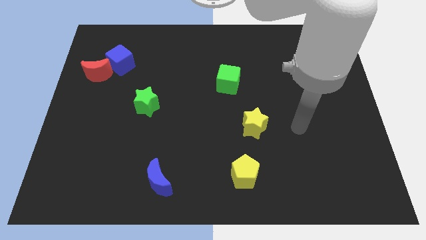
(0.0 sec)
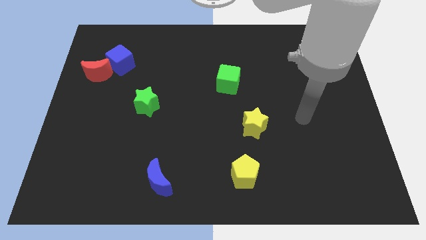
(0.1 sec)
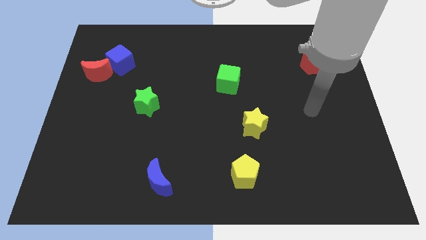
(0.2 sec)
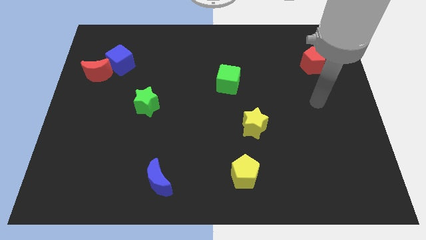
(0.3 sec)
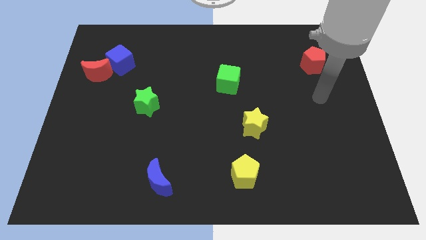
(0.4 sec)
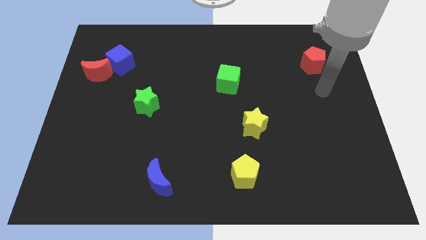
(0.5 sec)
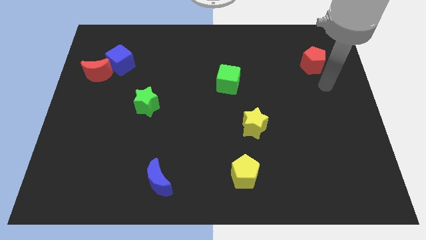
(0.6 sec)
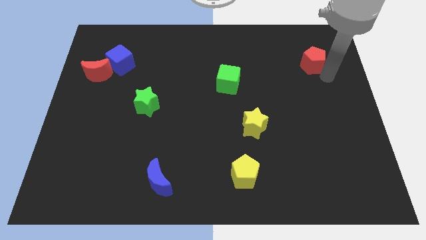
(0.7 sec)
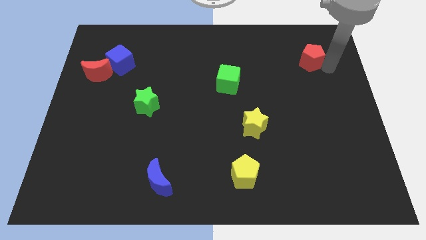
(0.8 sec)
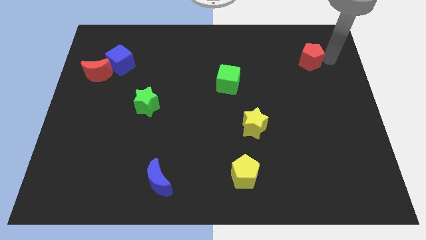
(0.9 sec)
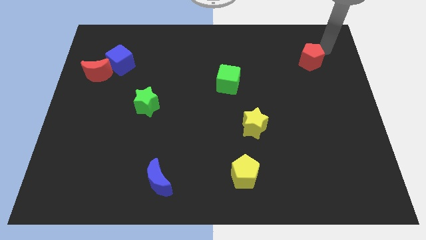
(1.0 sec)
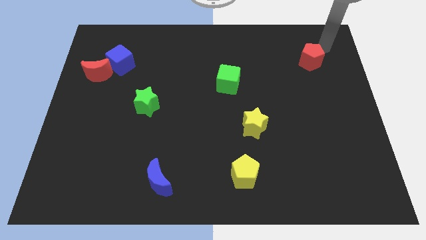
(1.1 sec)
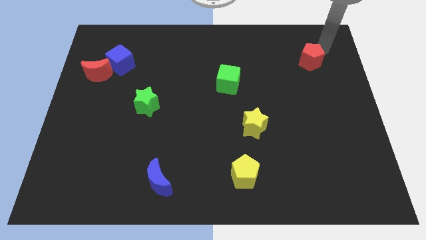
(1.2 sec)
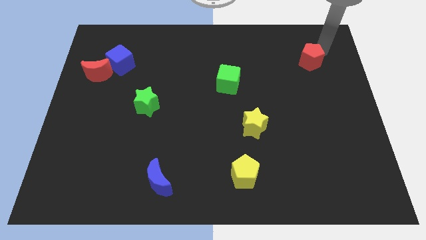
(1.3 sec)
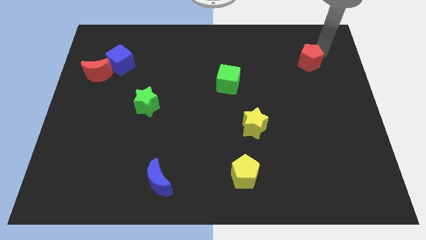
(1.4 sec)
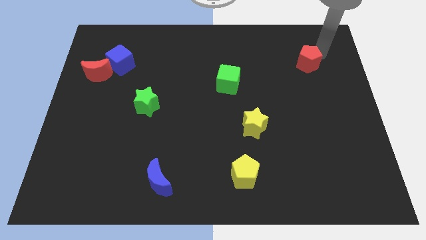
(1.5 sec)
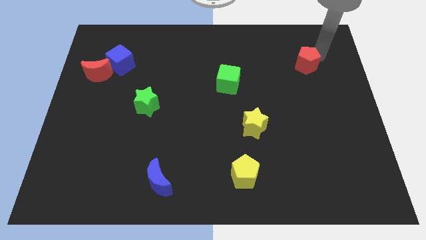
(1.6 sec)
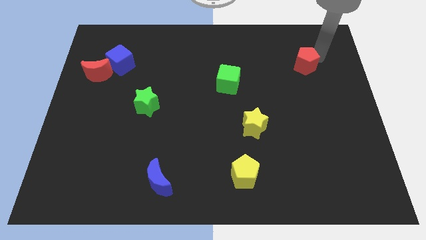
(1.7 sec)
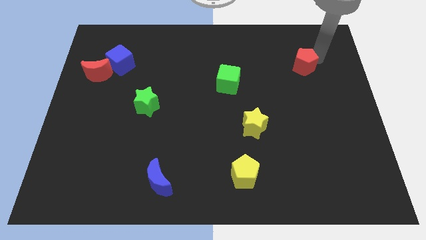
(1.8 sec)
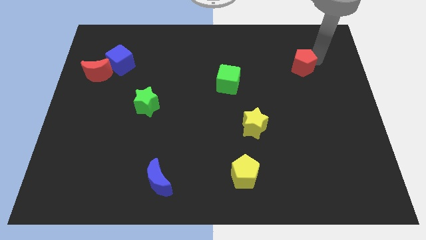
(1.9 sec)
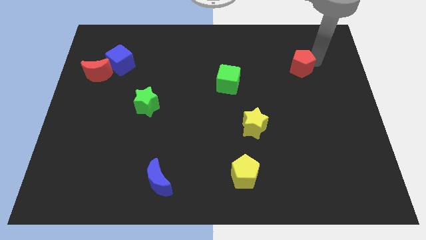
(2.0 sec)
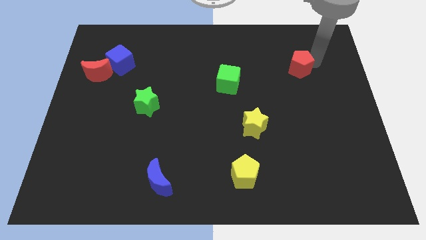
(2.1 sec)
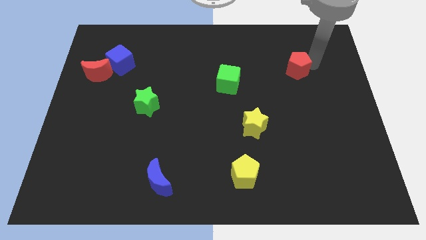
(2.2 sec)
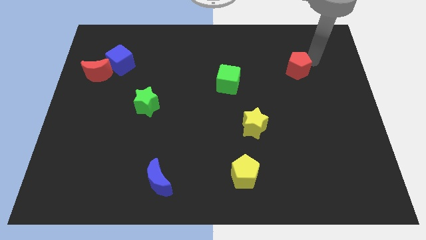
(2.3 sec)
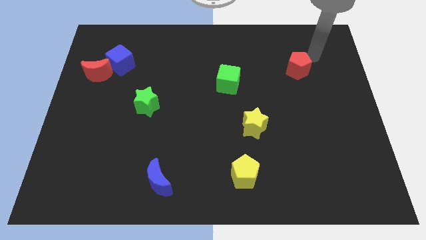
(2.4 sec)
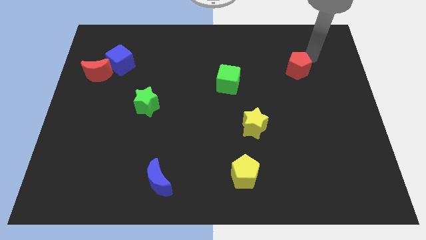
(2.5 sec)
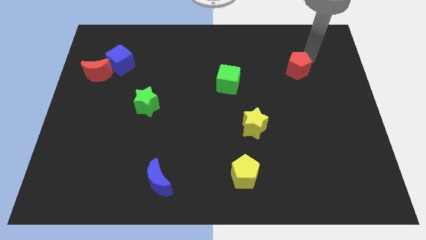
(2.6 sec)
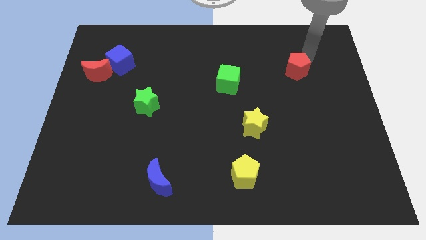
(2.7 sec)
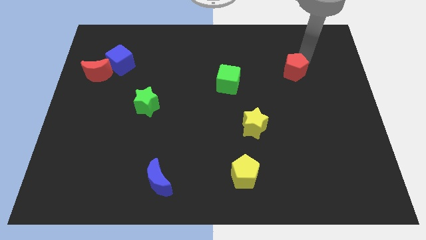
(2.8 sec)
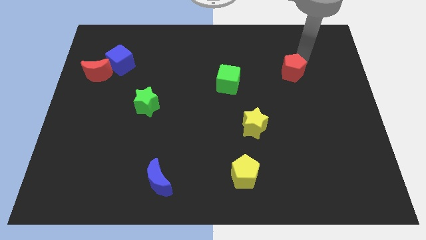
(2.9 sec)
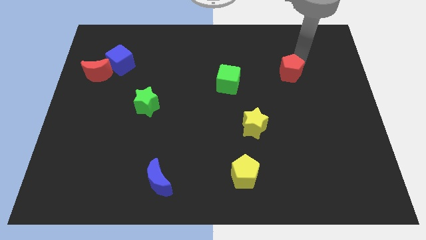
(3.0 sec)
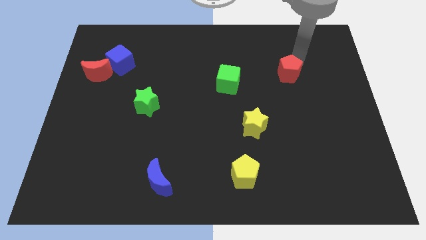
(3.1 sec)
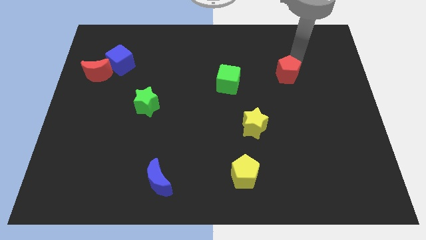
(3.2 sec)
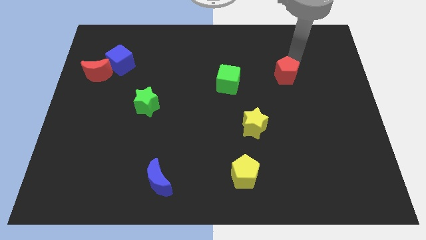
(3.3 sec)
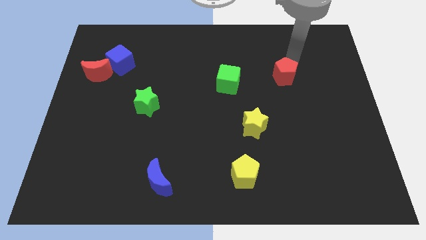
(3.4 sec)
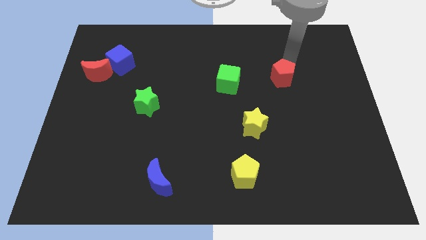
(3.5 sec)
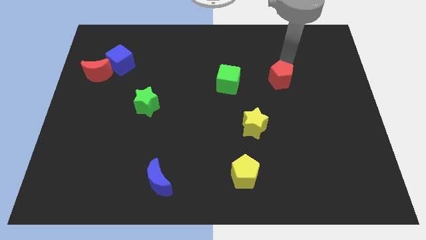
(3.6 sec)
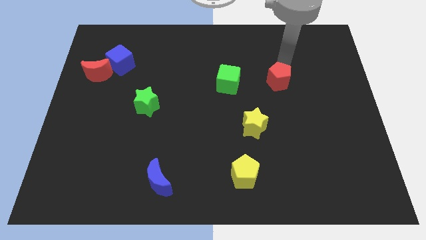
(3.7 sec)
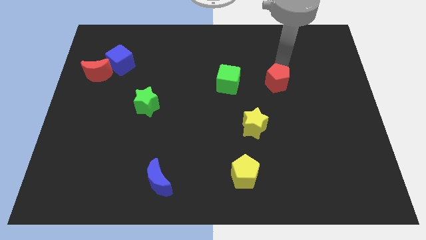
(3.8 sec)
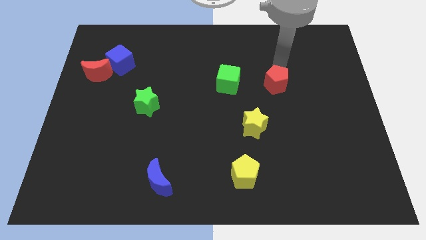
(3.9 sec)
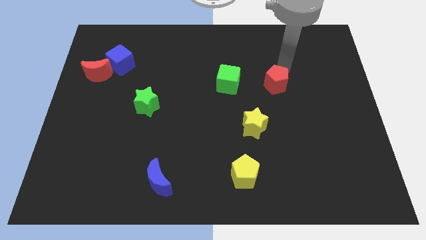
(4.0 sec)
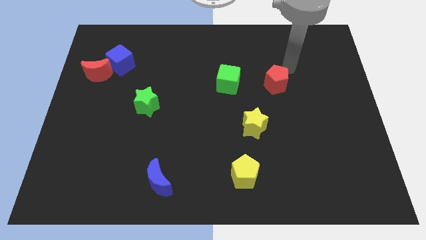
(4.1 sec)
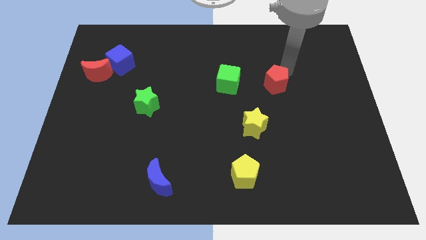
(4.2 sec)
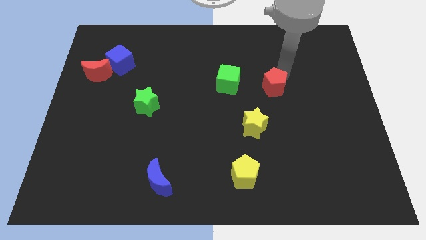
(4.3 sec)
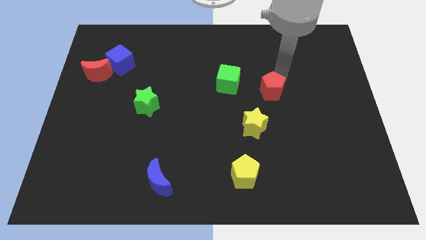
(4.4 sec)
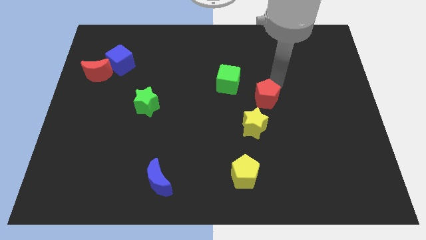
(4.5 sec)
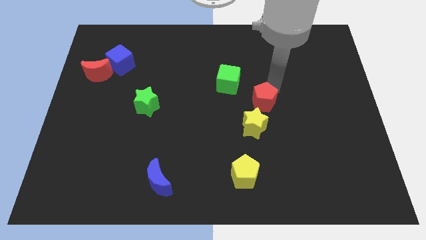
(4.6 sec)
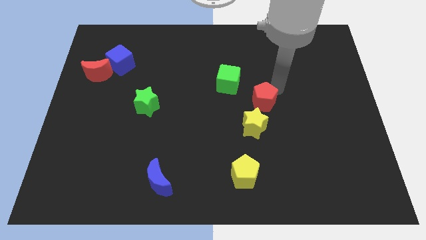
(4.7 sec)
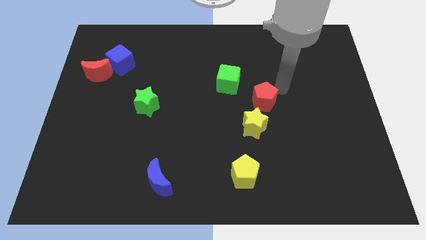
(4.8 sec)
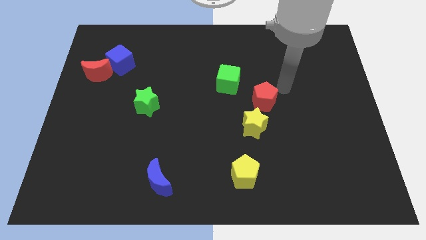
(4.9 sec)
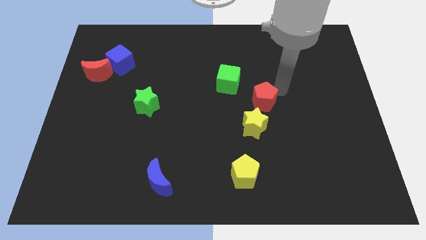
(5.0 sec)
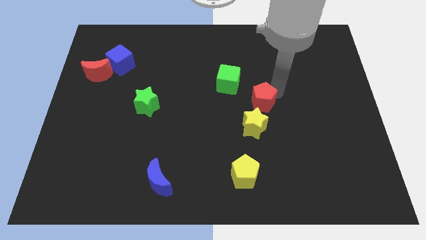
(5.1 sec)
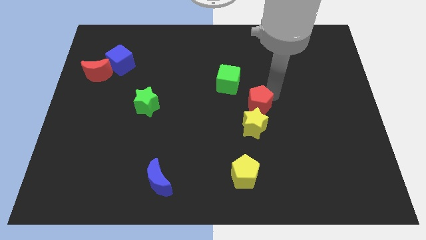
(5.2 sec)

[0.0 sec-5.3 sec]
move the red pentagon downwards and then to the left

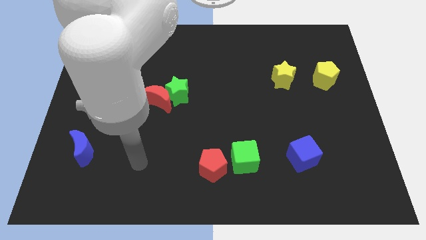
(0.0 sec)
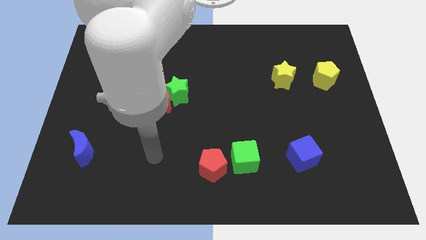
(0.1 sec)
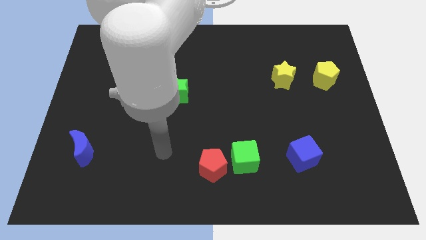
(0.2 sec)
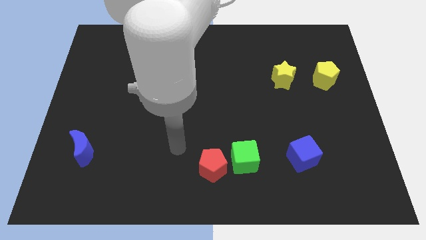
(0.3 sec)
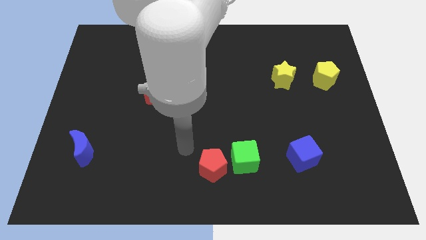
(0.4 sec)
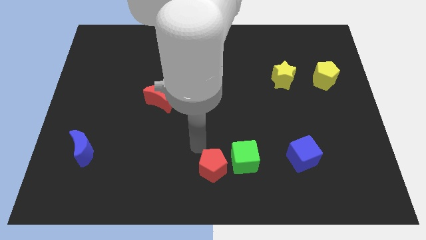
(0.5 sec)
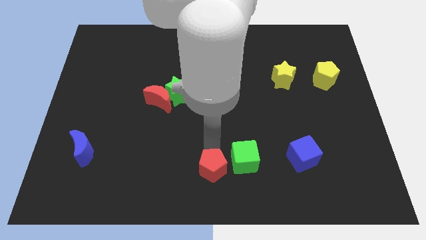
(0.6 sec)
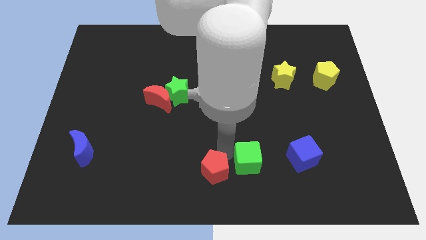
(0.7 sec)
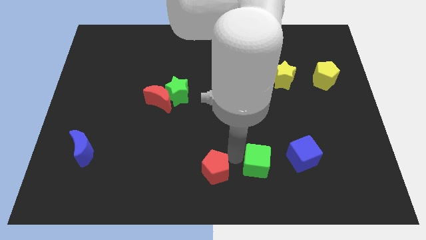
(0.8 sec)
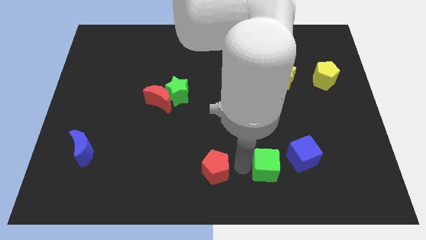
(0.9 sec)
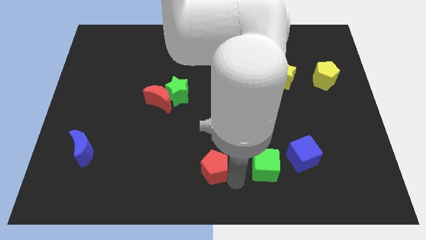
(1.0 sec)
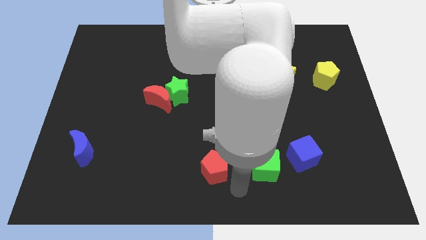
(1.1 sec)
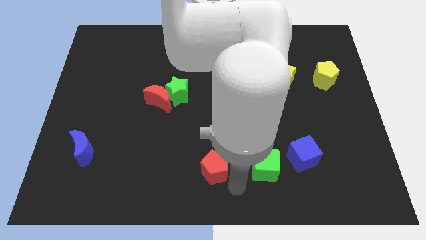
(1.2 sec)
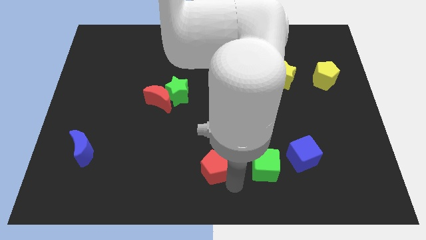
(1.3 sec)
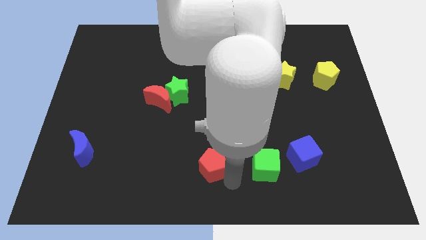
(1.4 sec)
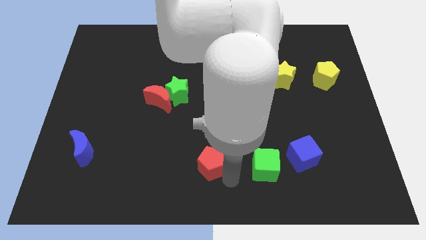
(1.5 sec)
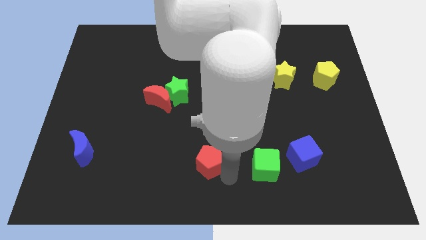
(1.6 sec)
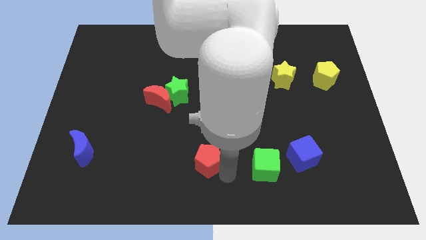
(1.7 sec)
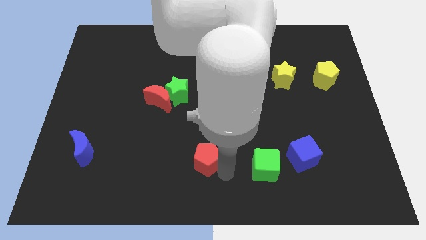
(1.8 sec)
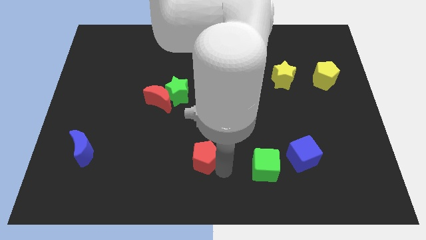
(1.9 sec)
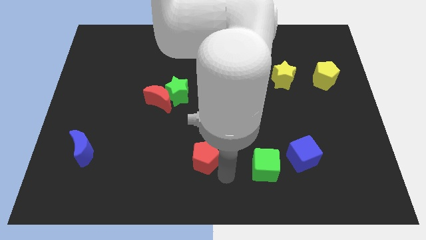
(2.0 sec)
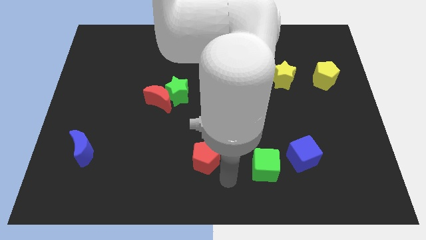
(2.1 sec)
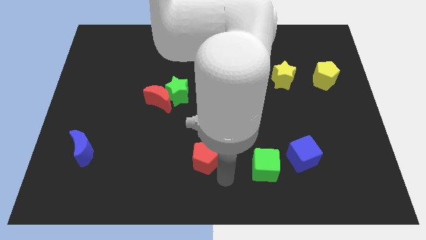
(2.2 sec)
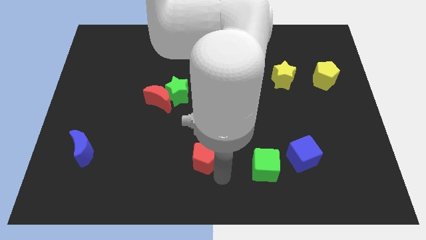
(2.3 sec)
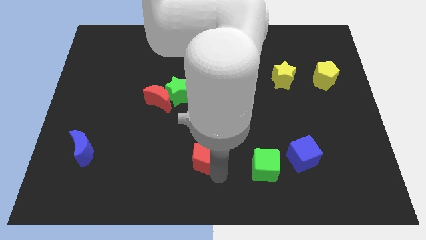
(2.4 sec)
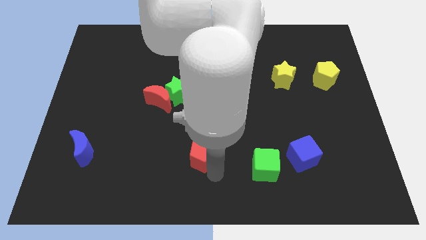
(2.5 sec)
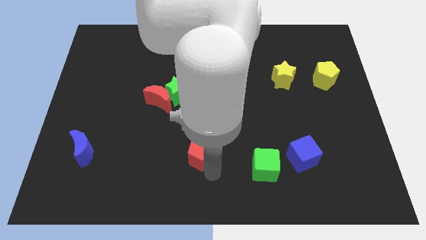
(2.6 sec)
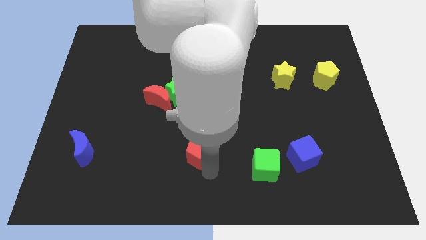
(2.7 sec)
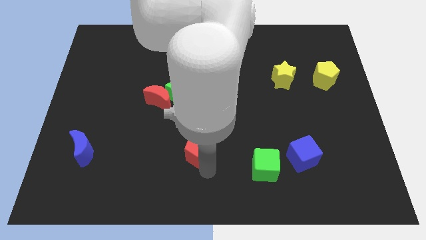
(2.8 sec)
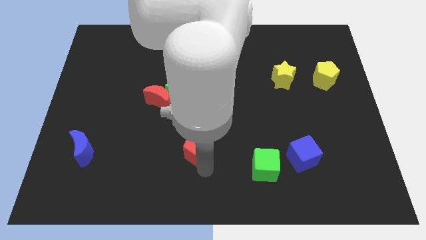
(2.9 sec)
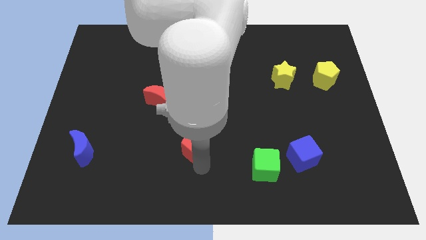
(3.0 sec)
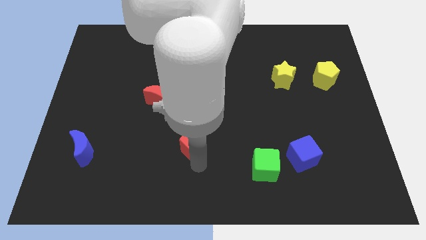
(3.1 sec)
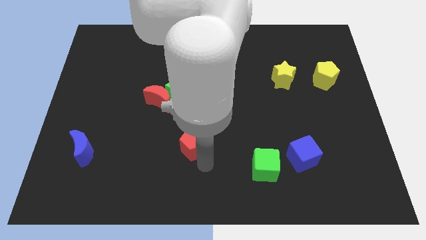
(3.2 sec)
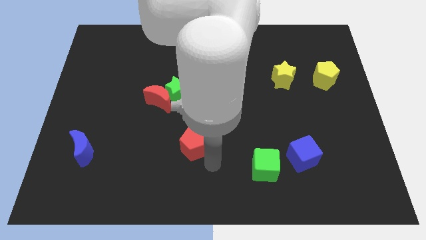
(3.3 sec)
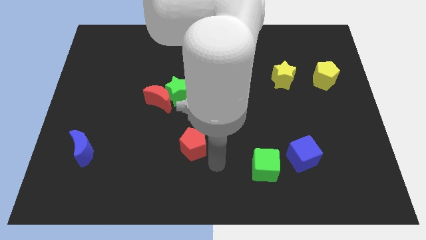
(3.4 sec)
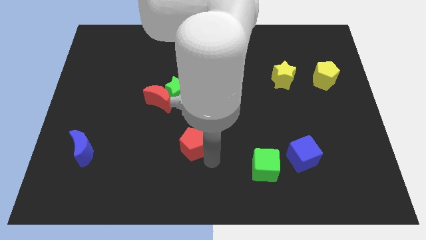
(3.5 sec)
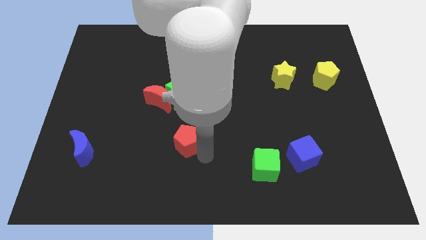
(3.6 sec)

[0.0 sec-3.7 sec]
push the red pentagon diagonally up and to the left a little
